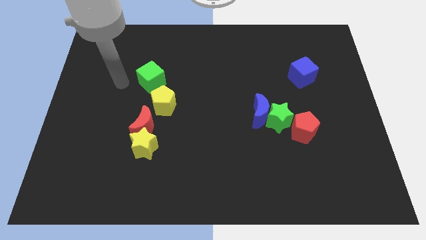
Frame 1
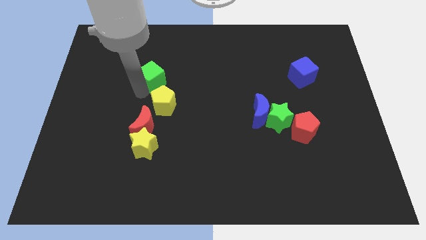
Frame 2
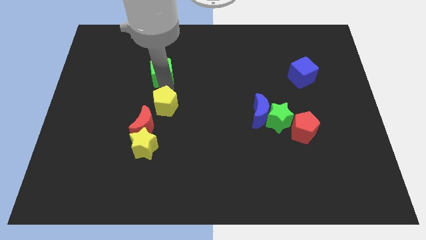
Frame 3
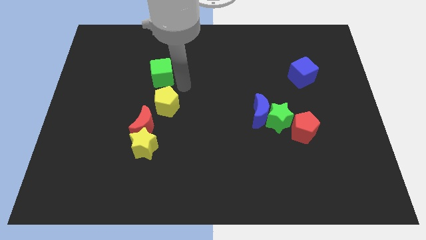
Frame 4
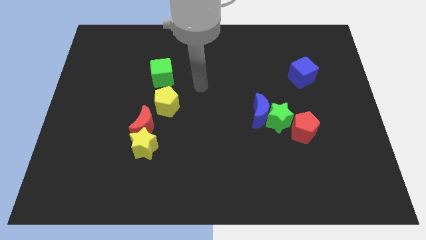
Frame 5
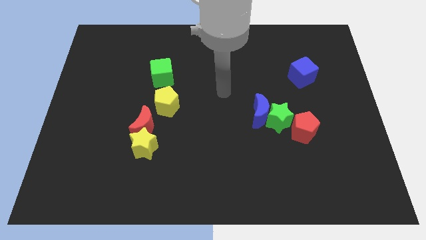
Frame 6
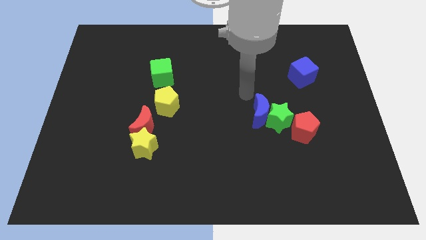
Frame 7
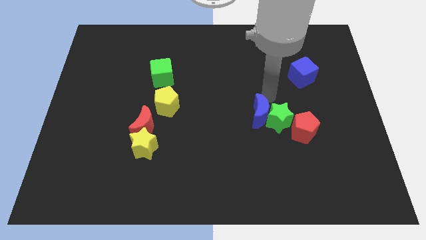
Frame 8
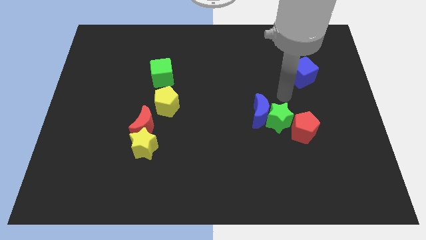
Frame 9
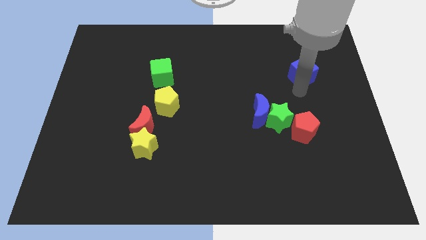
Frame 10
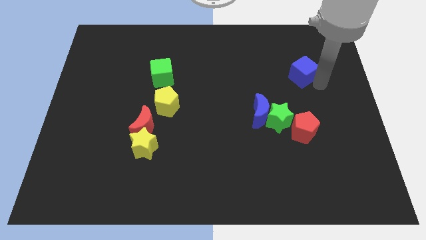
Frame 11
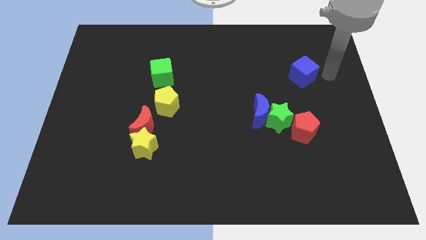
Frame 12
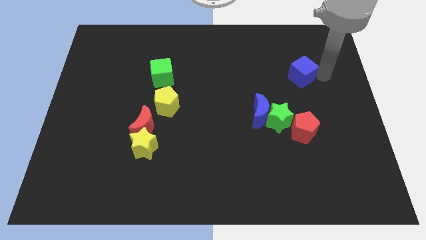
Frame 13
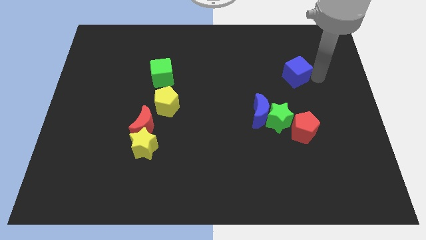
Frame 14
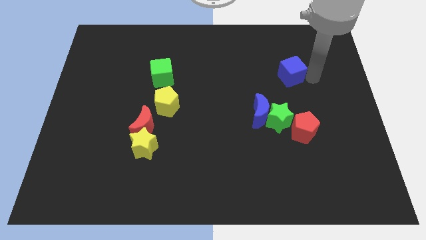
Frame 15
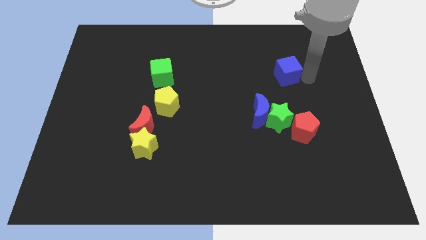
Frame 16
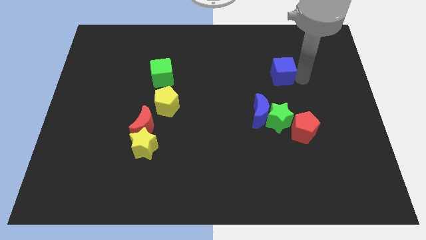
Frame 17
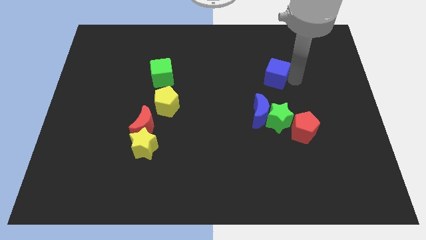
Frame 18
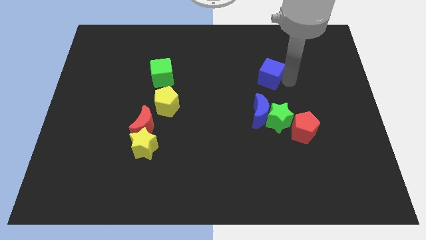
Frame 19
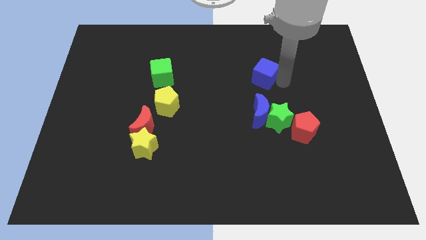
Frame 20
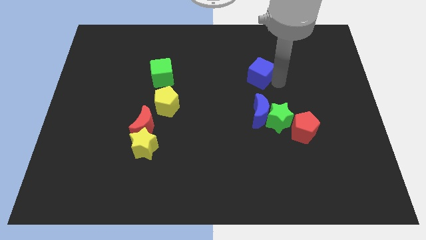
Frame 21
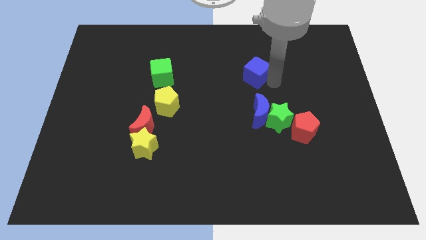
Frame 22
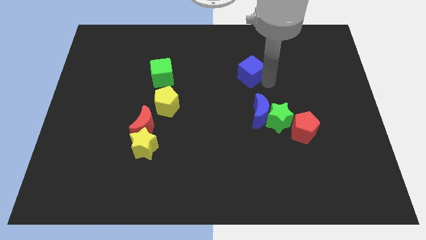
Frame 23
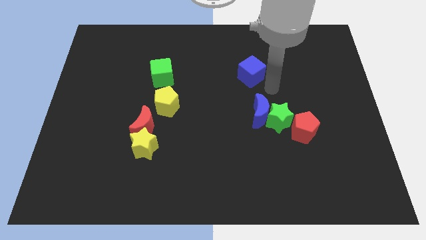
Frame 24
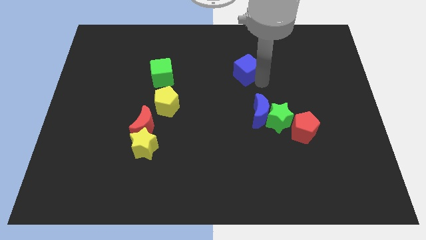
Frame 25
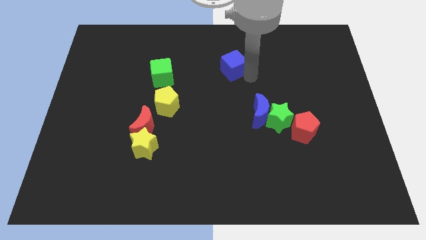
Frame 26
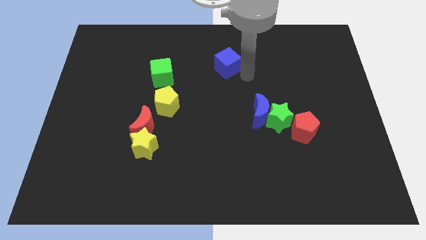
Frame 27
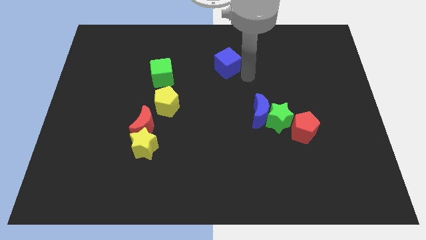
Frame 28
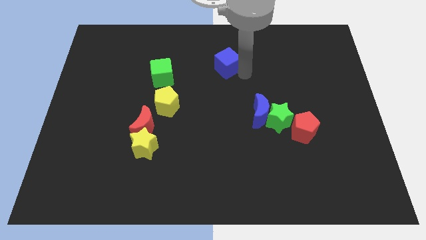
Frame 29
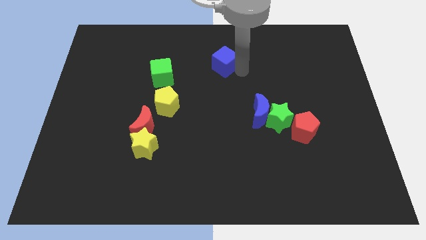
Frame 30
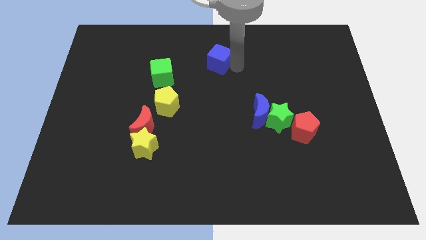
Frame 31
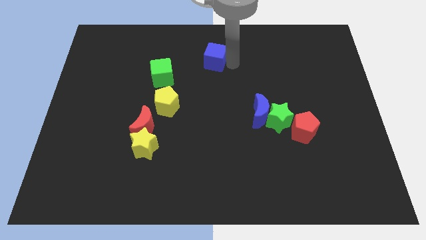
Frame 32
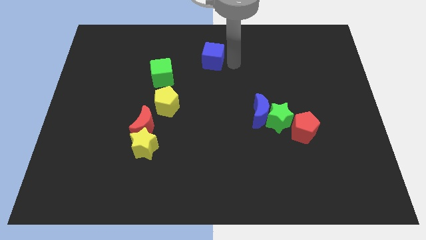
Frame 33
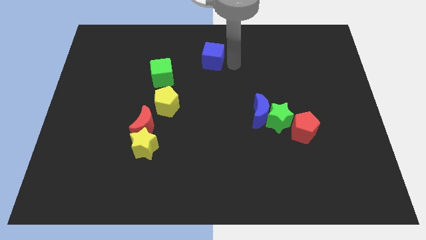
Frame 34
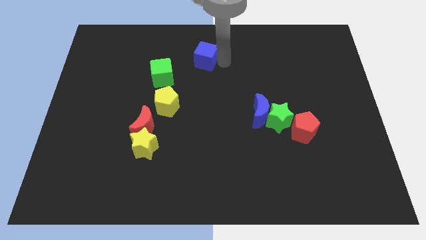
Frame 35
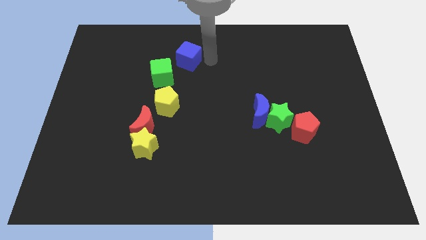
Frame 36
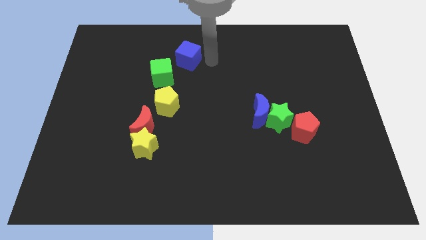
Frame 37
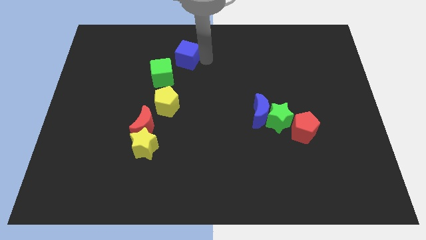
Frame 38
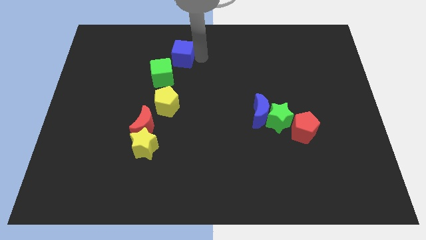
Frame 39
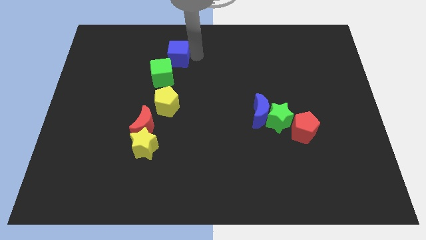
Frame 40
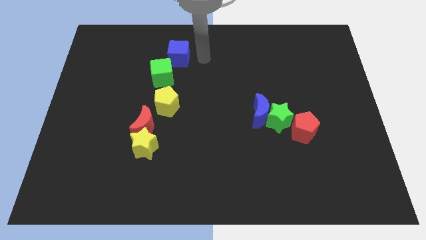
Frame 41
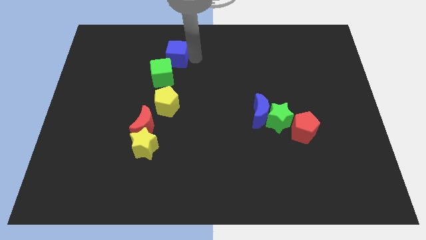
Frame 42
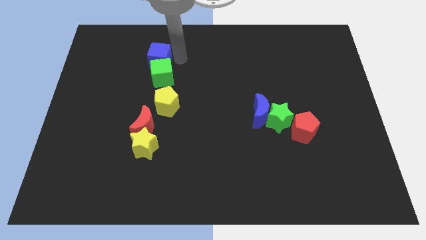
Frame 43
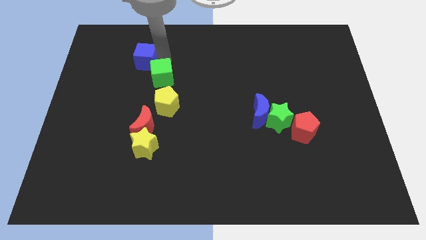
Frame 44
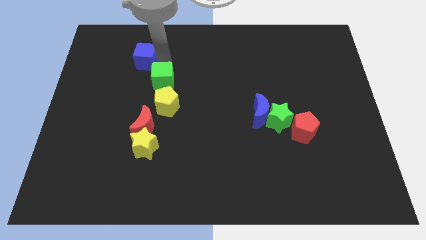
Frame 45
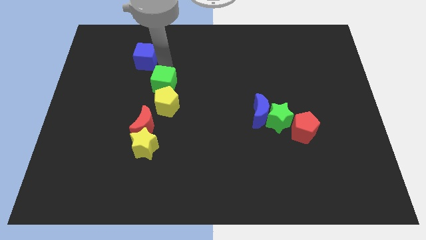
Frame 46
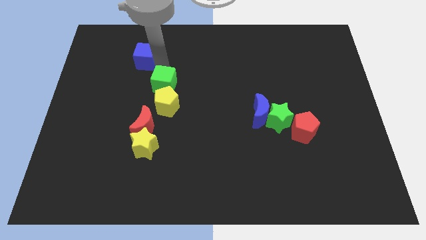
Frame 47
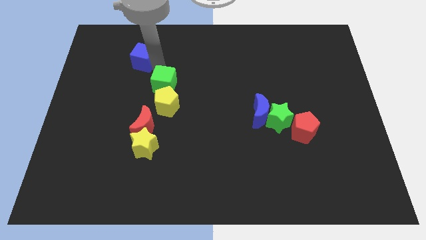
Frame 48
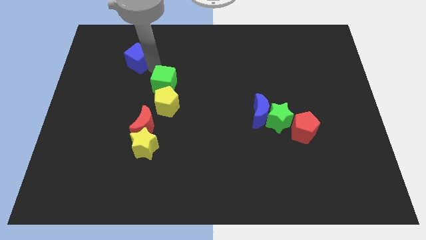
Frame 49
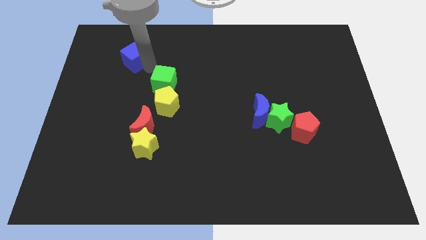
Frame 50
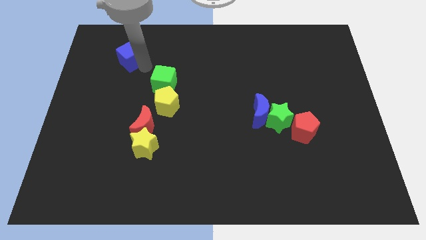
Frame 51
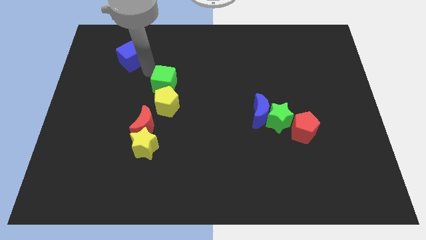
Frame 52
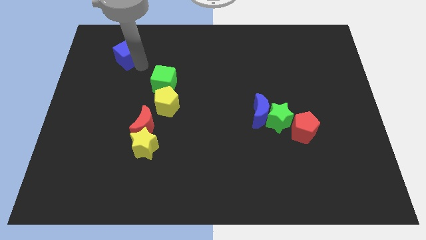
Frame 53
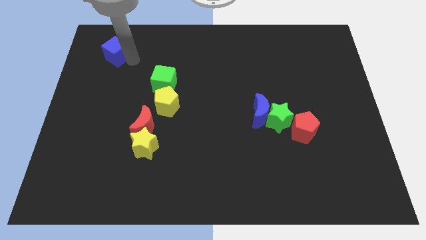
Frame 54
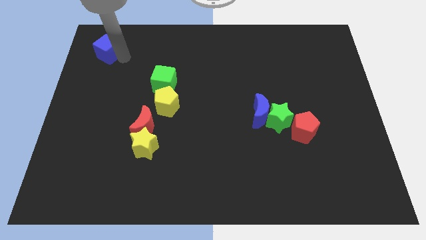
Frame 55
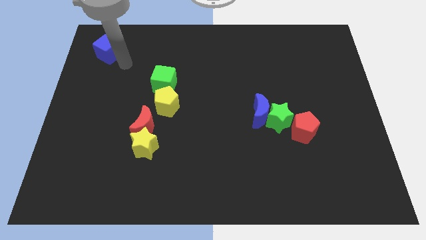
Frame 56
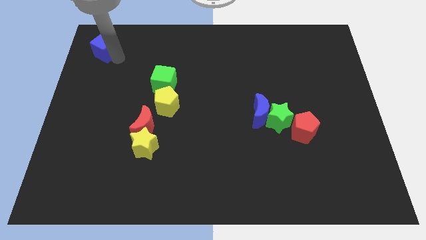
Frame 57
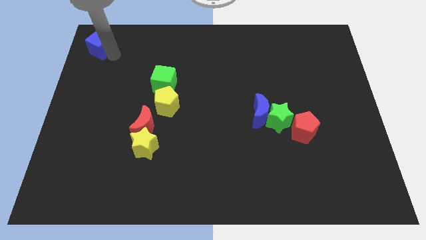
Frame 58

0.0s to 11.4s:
slide the blue cube to the top left corner
